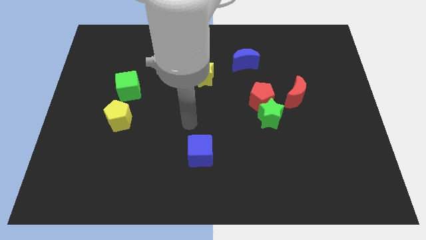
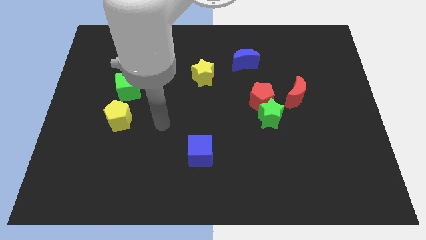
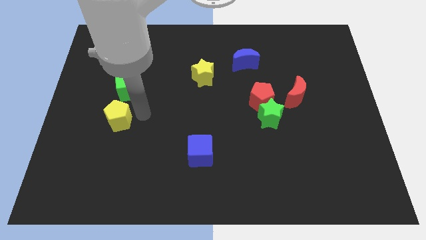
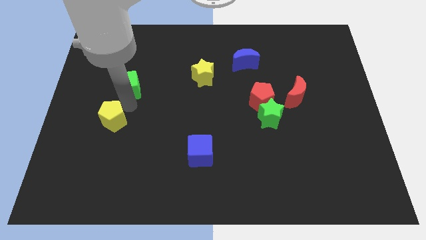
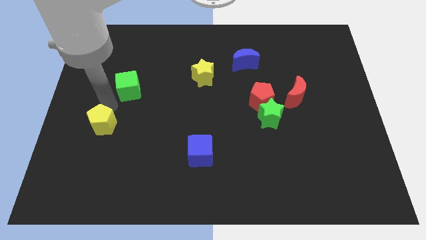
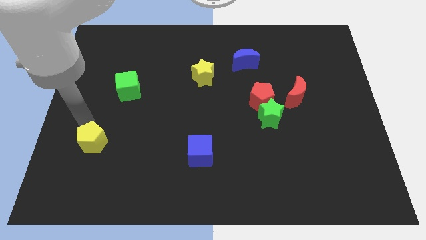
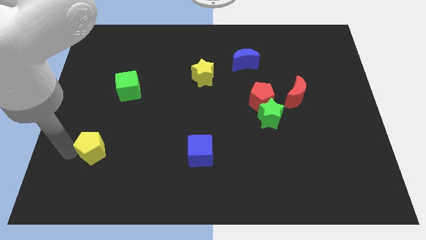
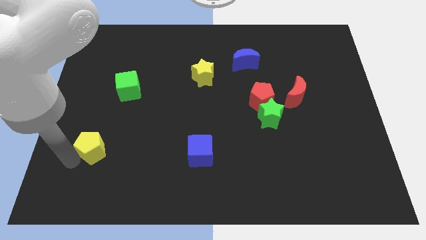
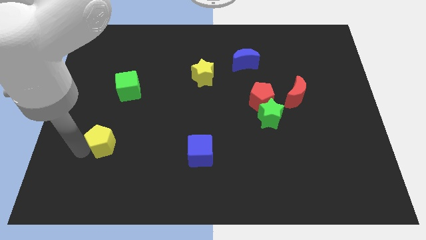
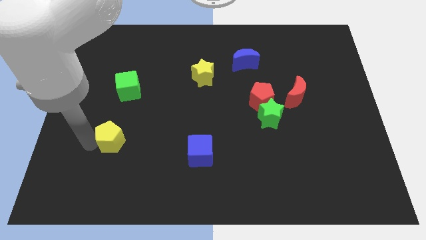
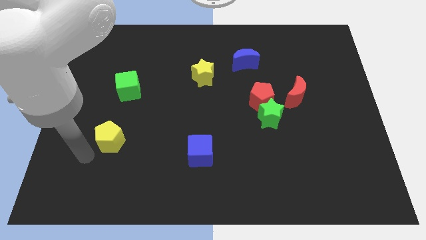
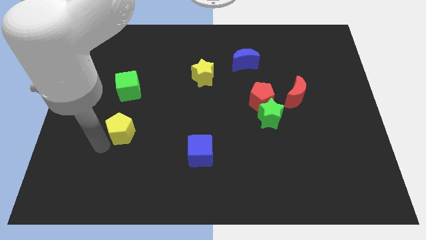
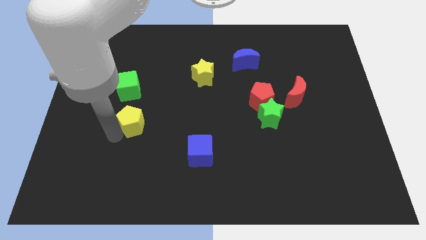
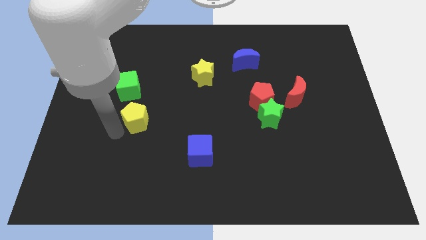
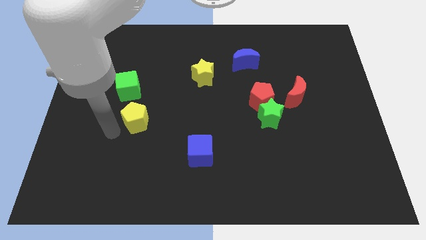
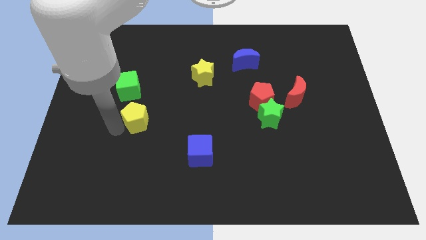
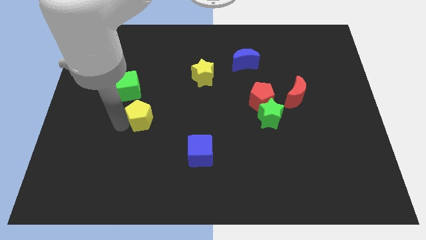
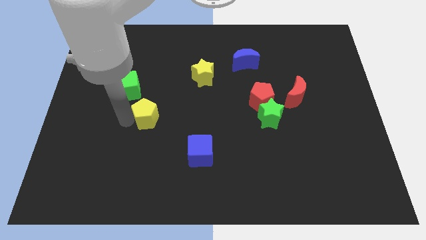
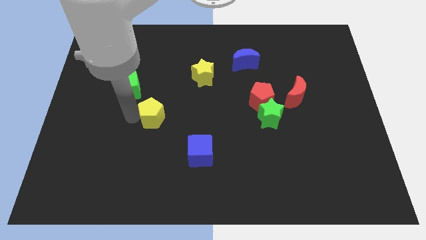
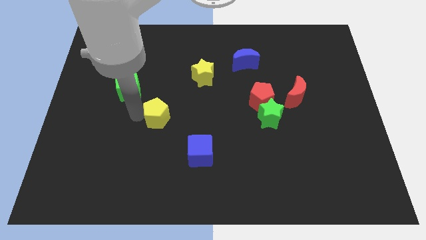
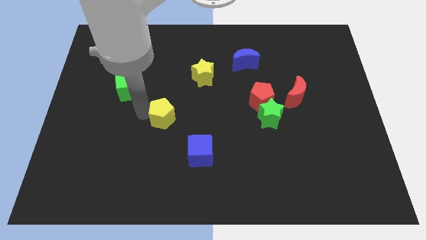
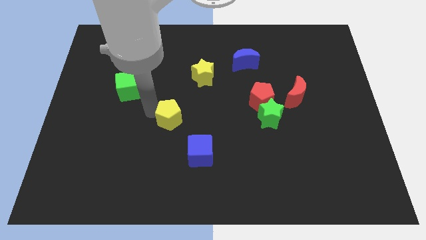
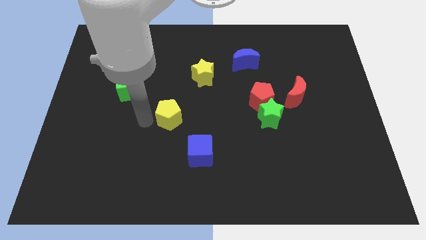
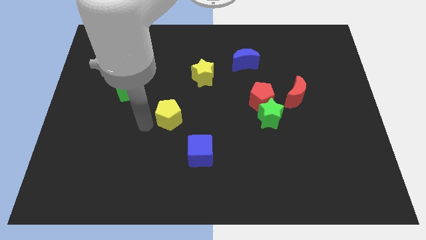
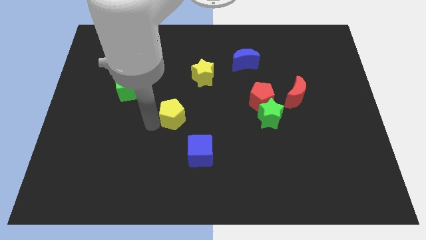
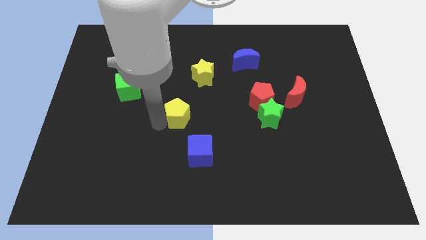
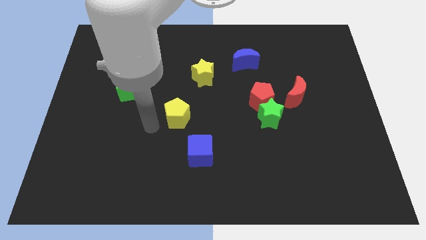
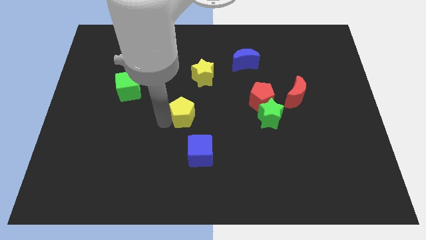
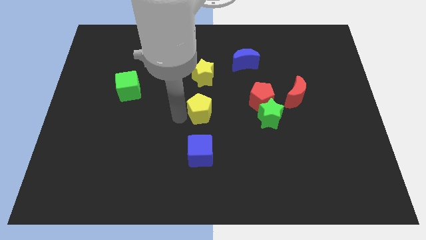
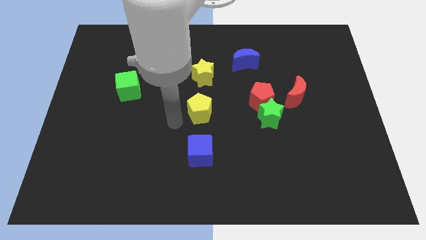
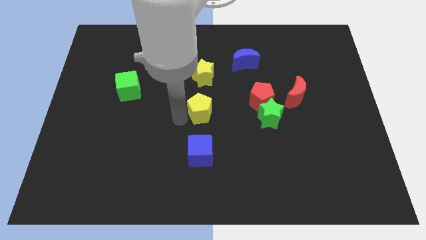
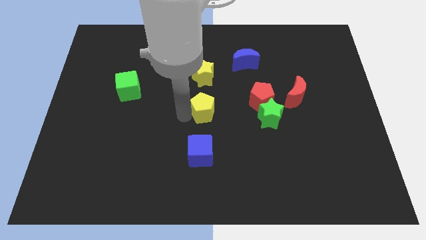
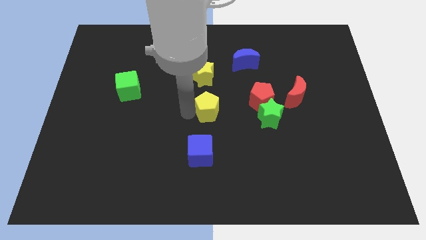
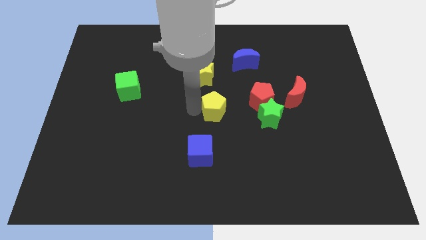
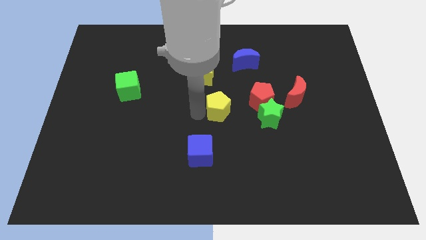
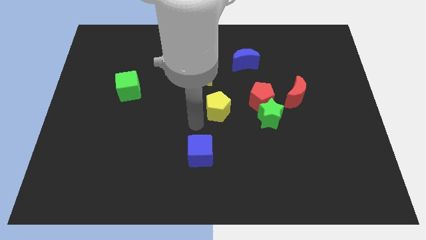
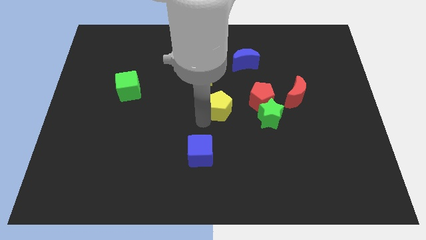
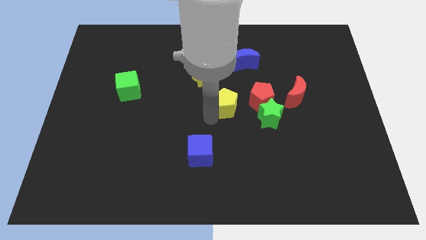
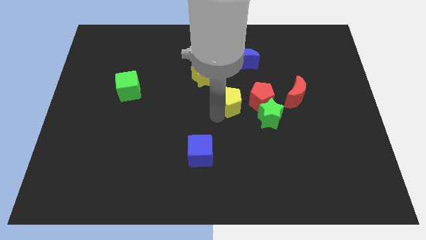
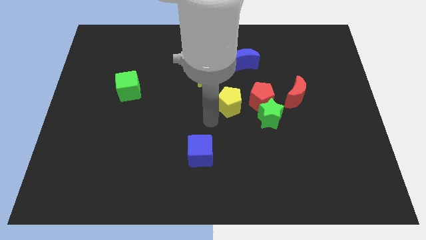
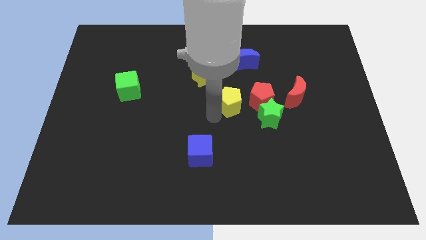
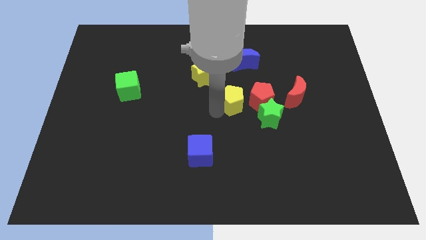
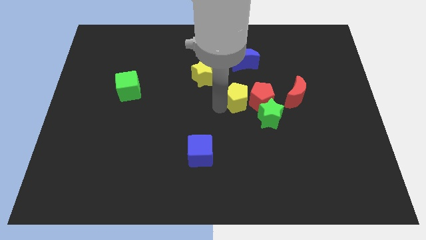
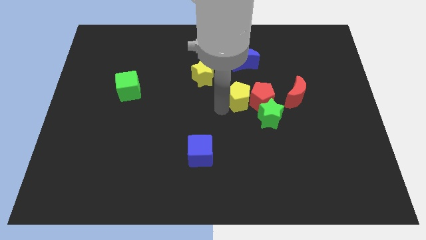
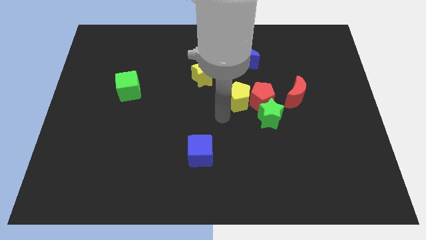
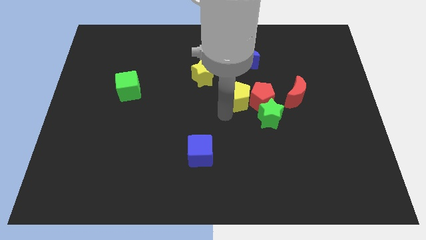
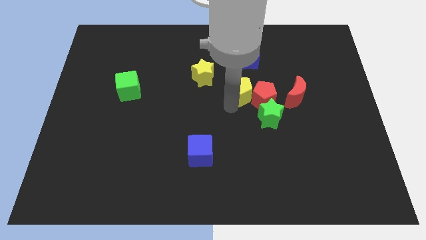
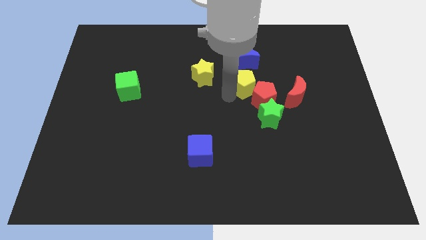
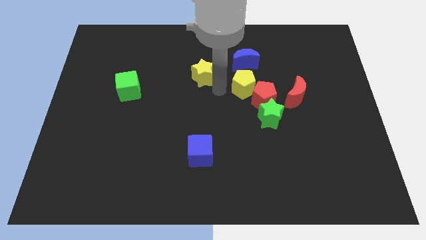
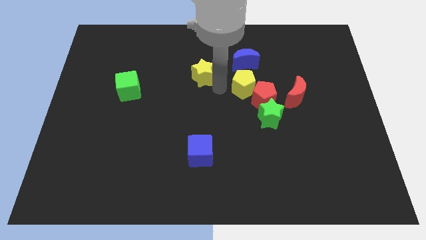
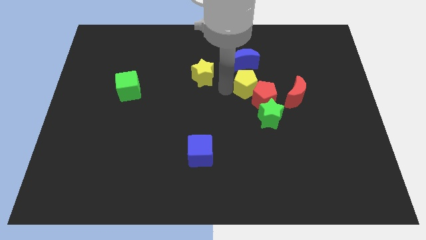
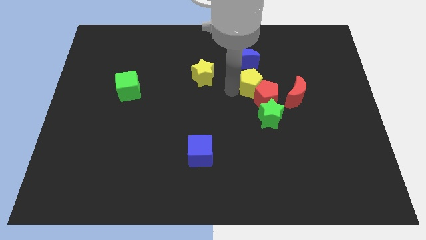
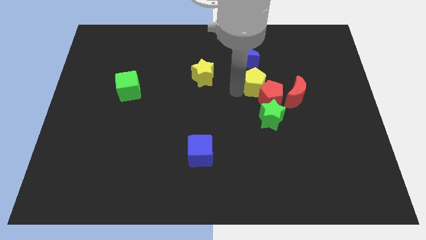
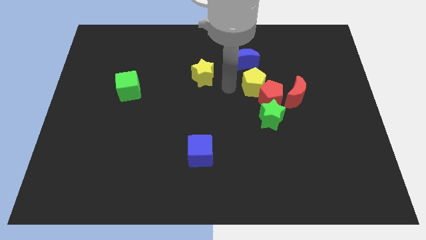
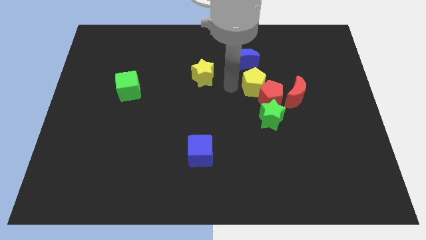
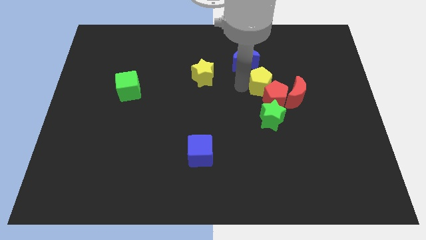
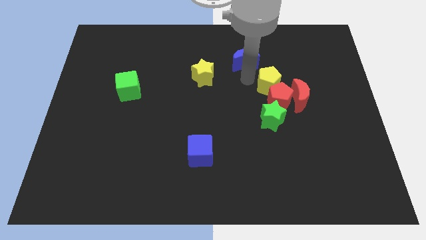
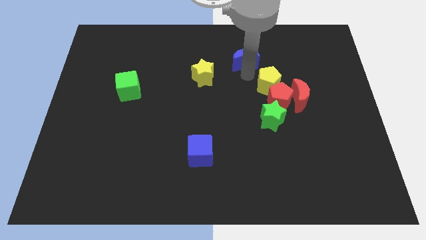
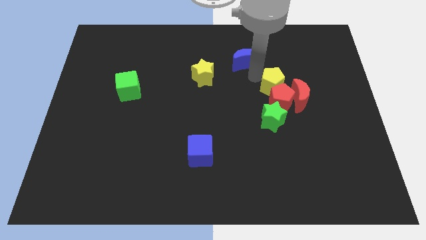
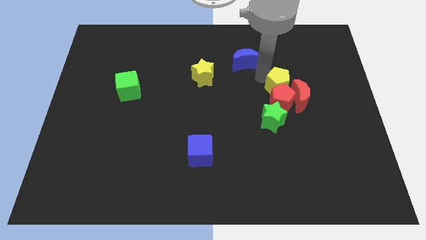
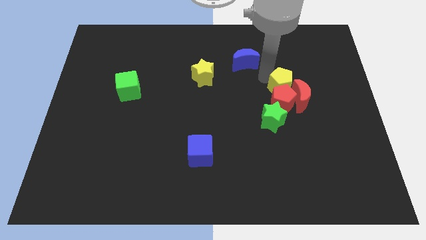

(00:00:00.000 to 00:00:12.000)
push the yellow pentagon next to the red moon

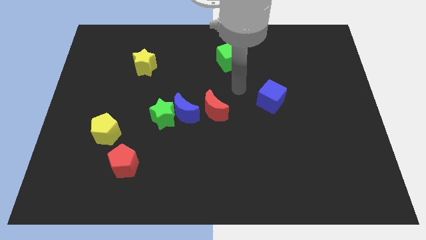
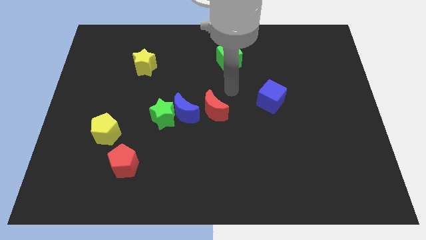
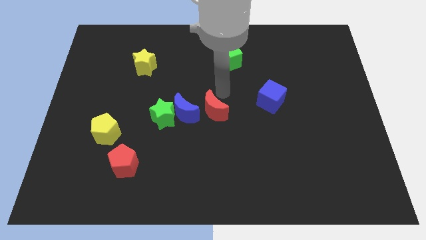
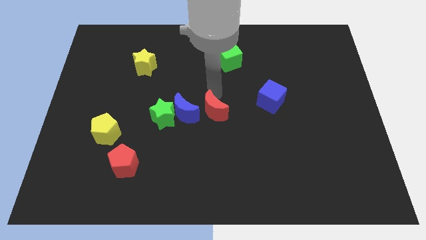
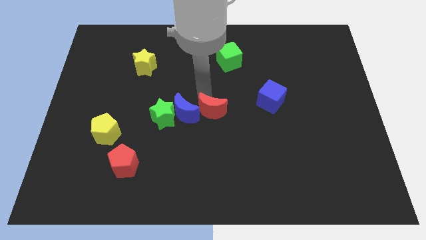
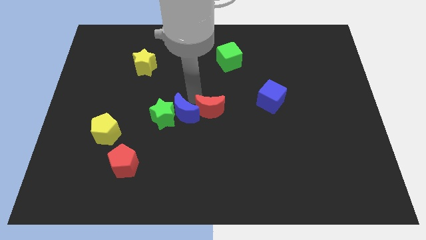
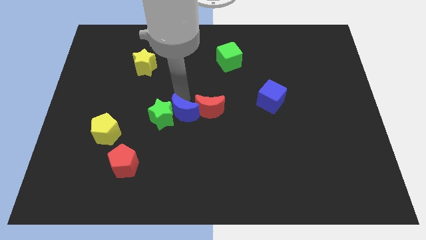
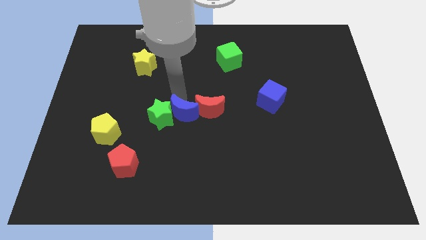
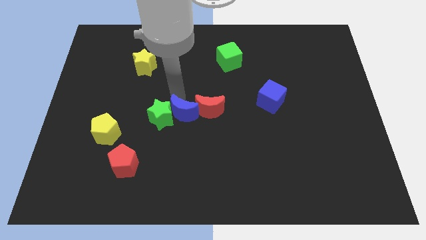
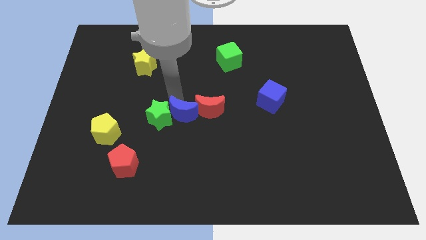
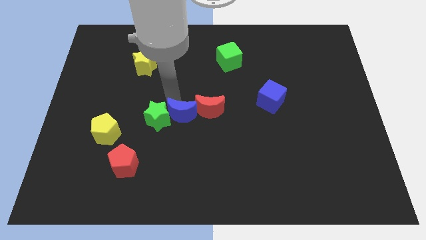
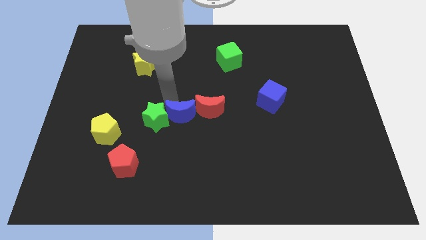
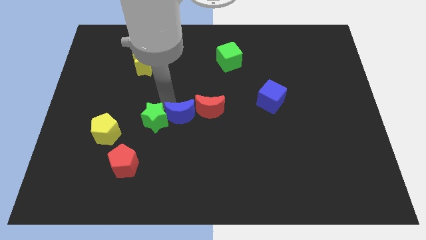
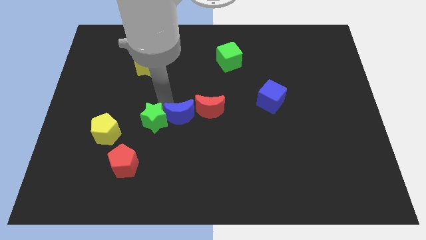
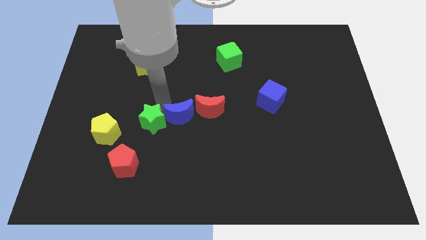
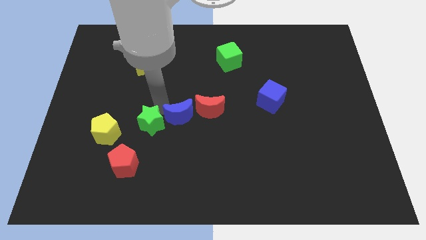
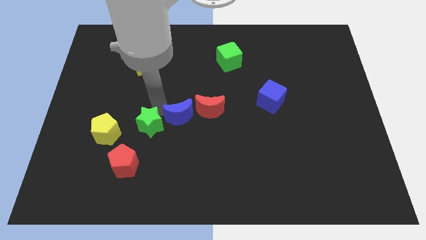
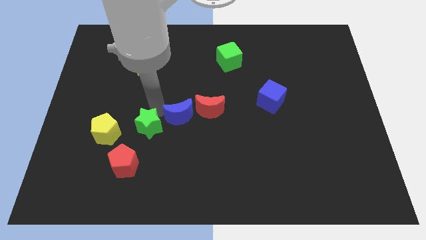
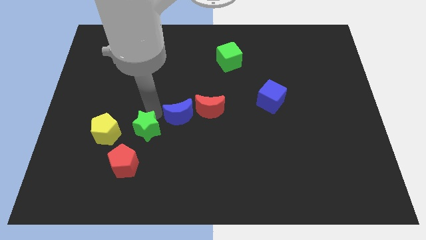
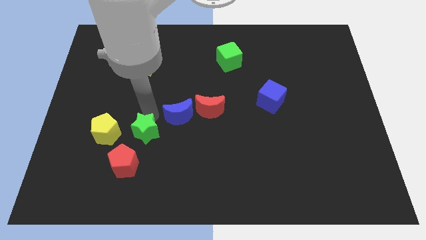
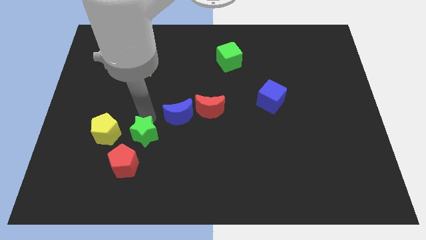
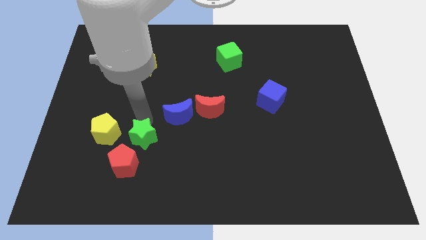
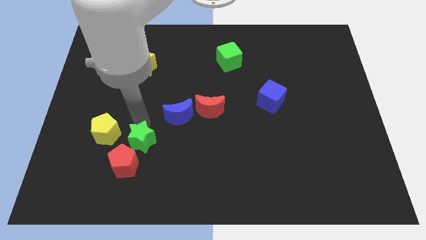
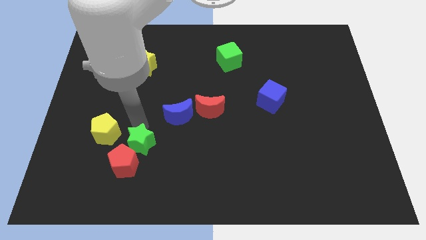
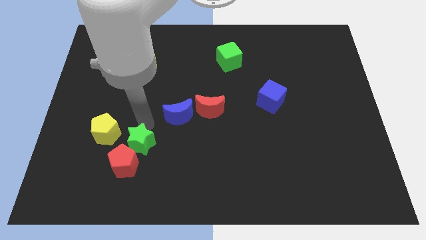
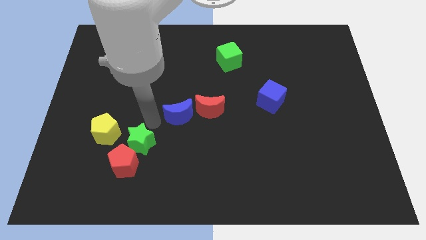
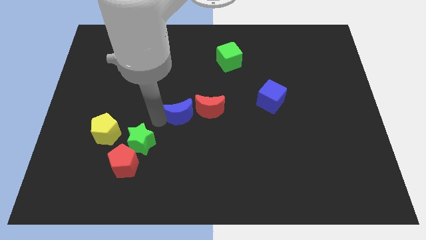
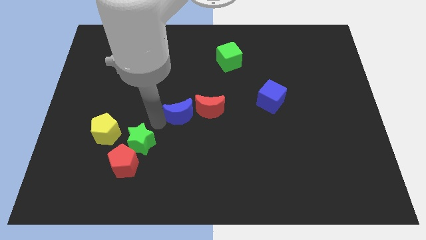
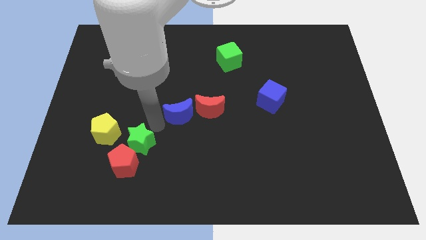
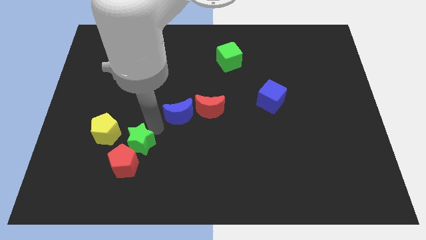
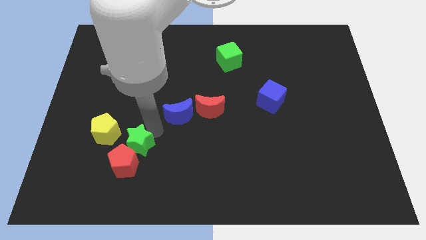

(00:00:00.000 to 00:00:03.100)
put the green star towards the red pentagon
